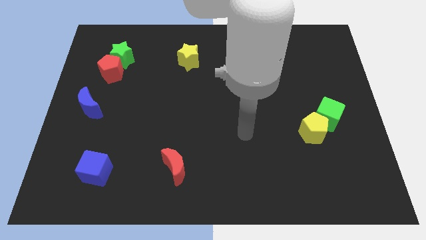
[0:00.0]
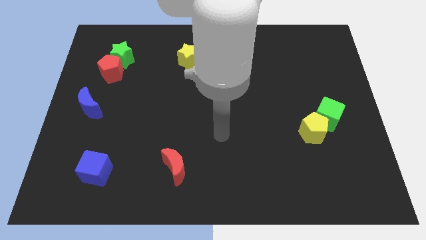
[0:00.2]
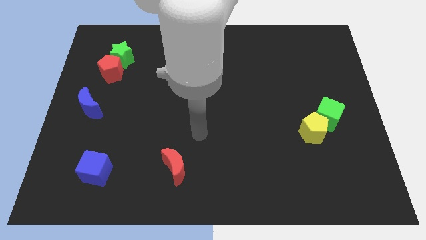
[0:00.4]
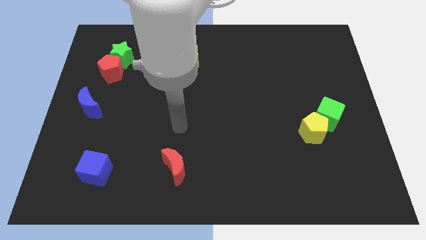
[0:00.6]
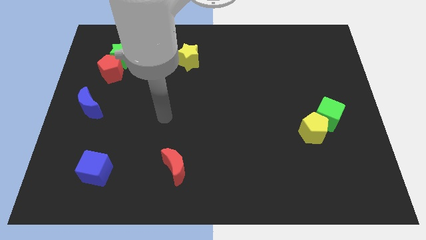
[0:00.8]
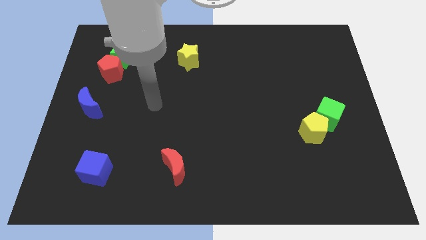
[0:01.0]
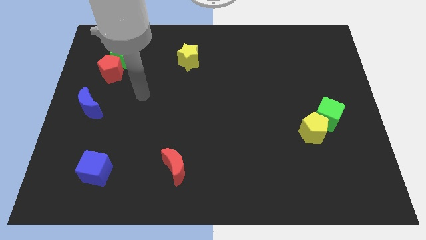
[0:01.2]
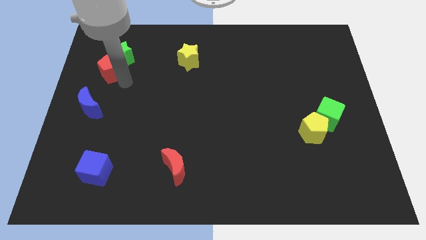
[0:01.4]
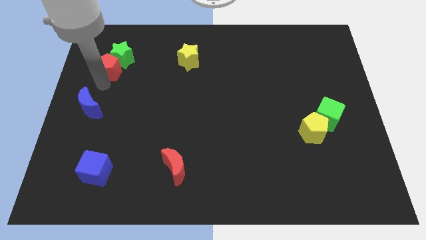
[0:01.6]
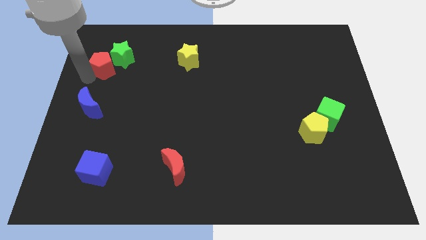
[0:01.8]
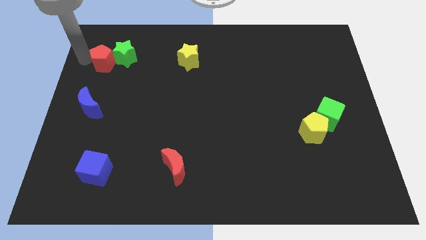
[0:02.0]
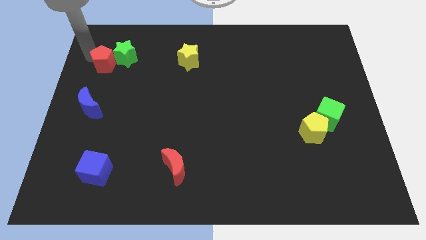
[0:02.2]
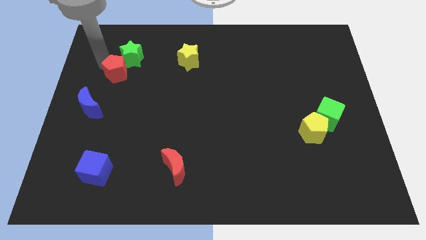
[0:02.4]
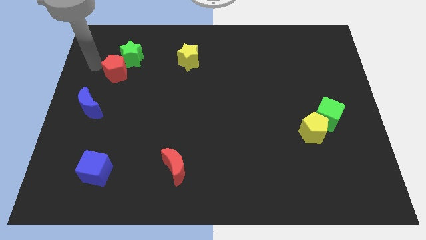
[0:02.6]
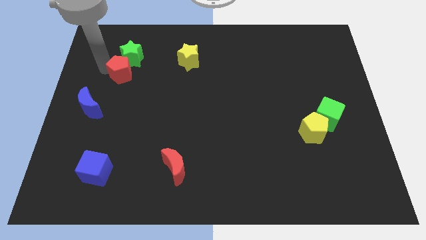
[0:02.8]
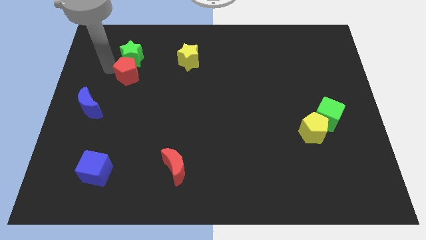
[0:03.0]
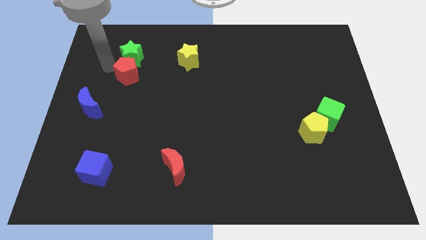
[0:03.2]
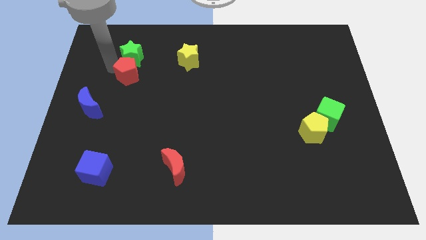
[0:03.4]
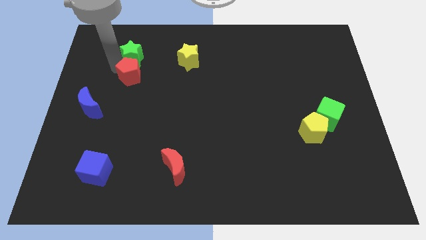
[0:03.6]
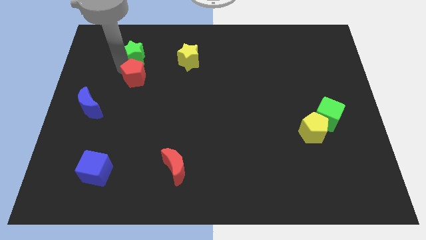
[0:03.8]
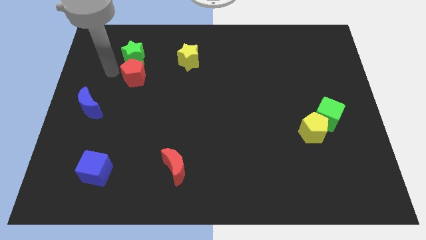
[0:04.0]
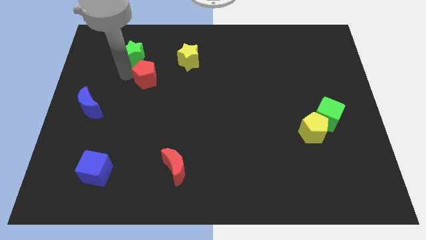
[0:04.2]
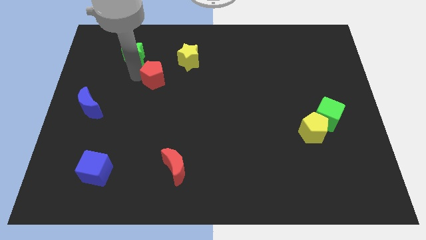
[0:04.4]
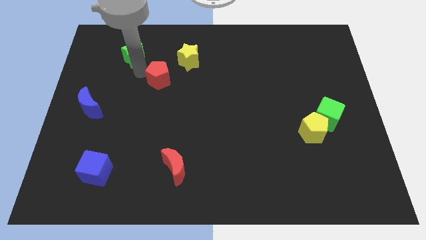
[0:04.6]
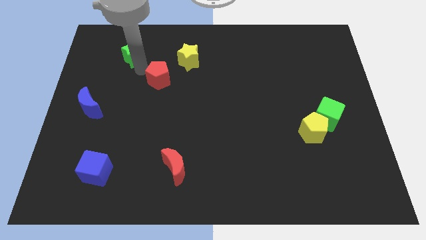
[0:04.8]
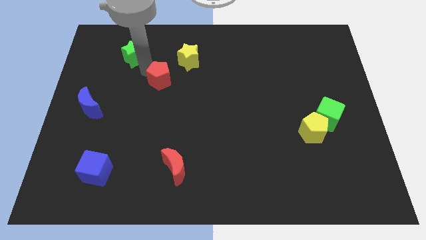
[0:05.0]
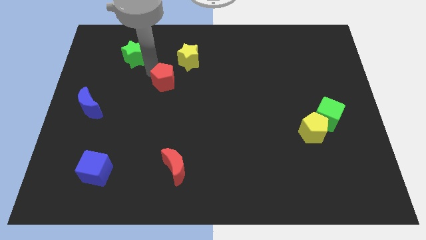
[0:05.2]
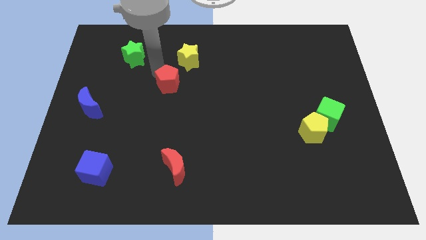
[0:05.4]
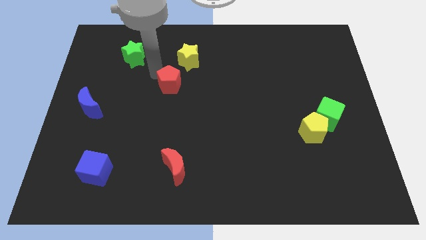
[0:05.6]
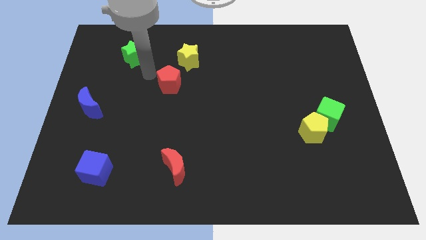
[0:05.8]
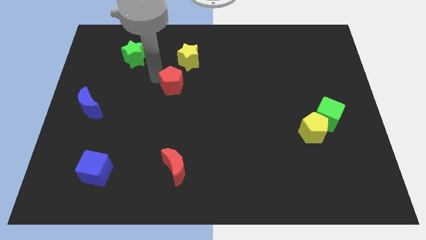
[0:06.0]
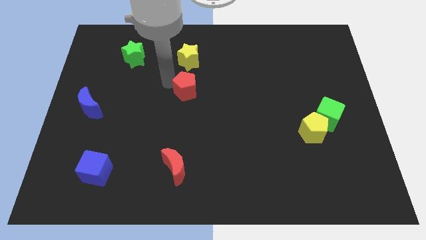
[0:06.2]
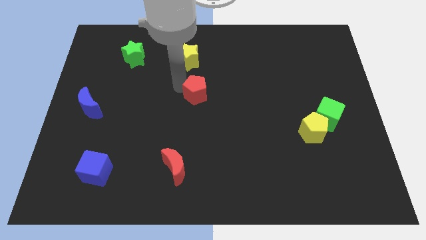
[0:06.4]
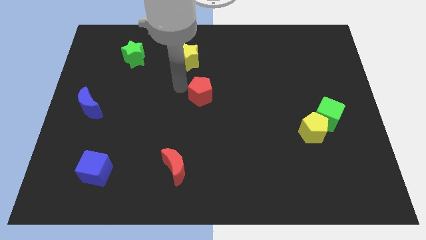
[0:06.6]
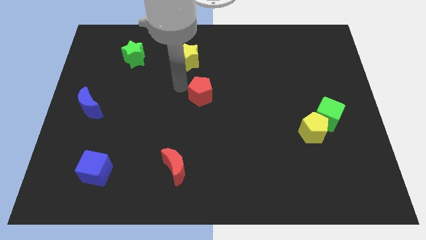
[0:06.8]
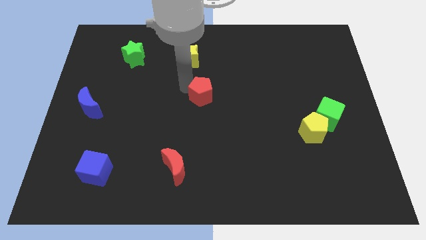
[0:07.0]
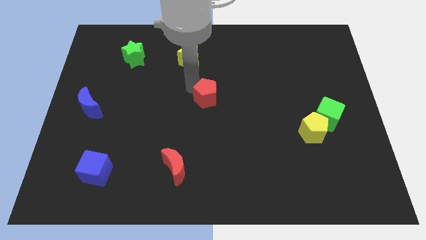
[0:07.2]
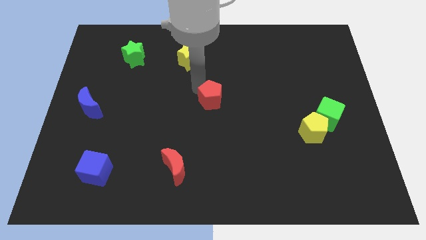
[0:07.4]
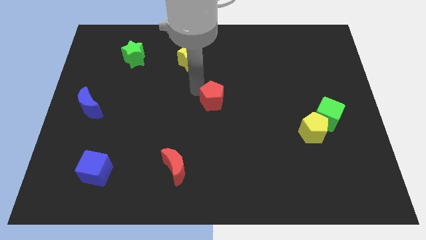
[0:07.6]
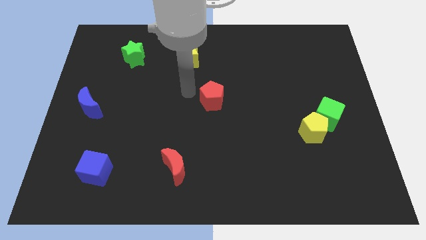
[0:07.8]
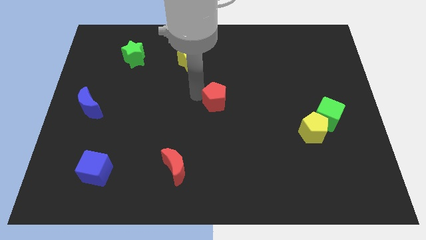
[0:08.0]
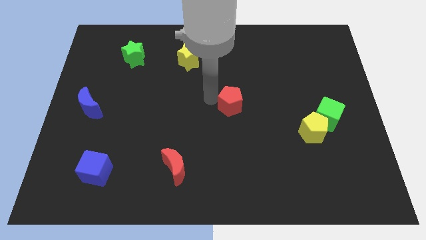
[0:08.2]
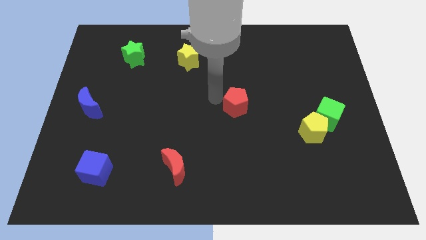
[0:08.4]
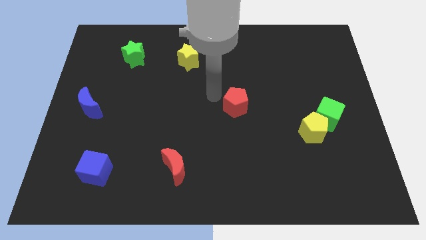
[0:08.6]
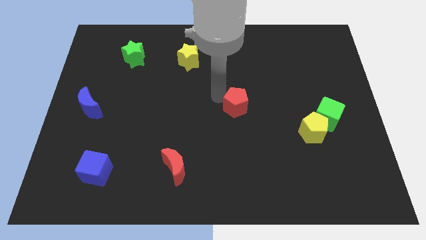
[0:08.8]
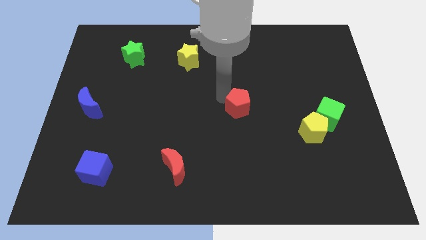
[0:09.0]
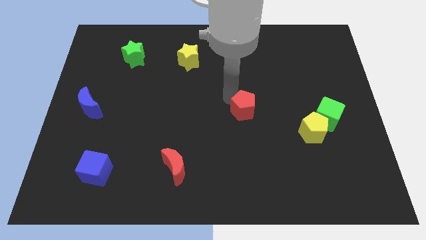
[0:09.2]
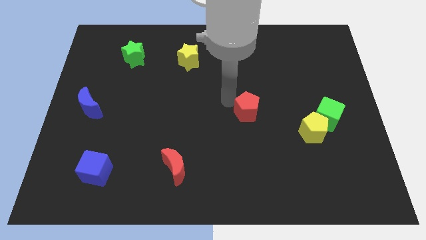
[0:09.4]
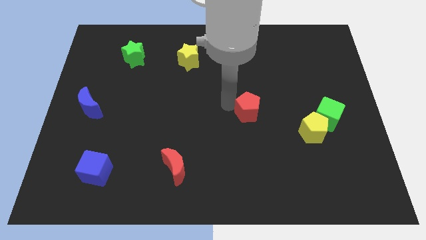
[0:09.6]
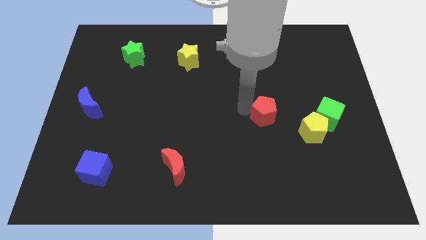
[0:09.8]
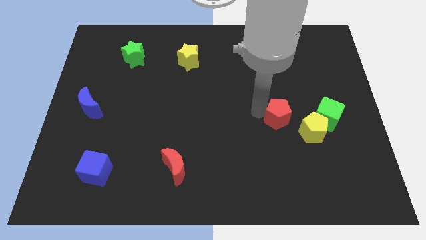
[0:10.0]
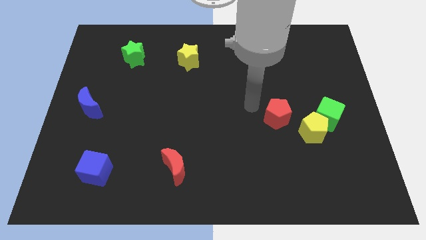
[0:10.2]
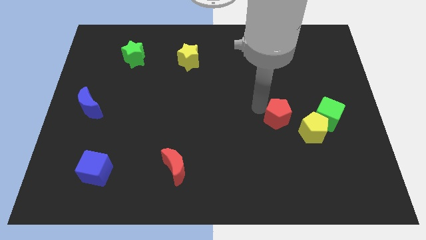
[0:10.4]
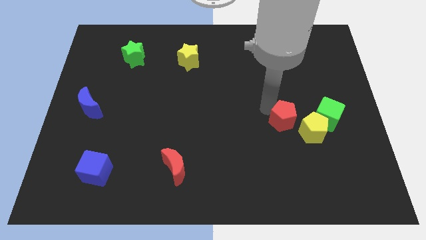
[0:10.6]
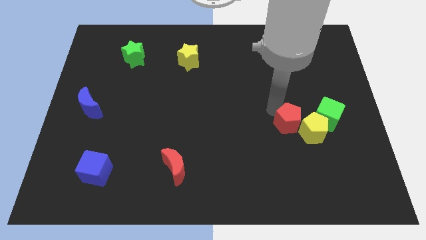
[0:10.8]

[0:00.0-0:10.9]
move the red pentagon to the yellow pentagon

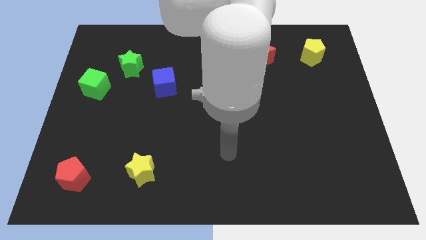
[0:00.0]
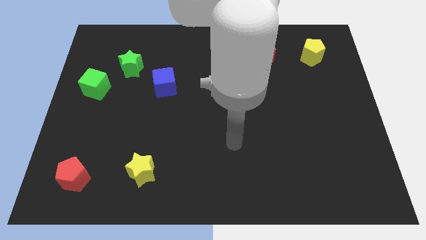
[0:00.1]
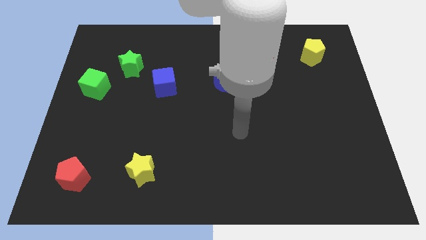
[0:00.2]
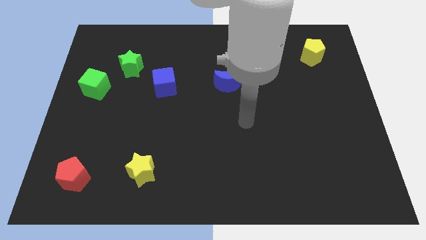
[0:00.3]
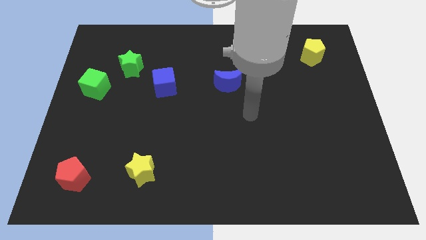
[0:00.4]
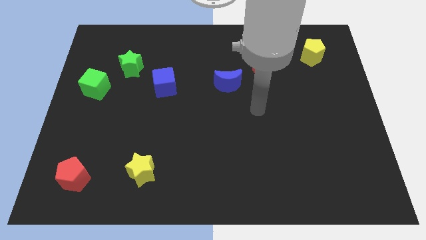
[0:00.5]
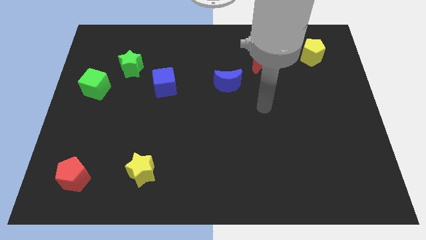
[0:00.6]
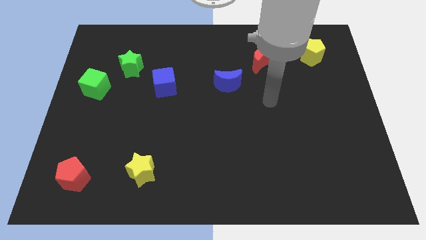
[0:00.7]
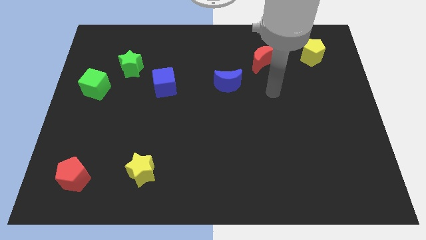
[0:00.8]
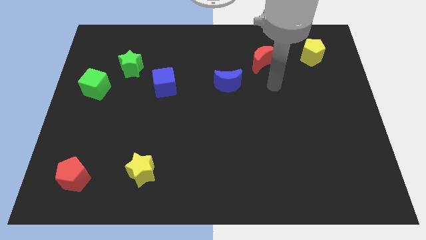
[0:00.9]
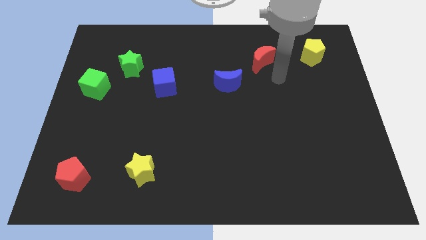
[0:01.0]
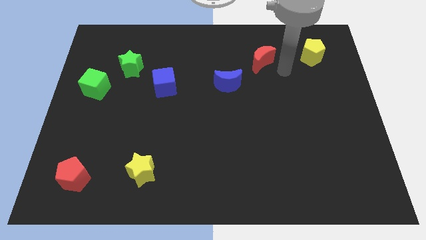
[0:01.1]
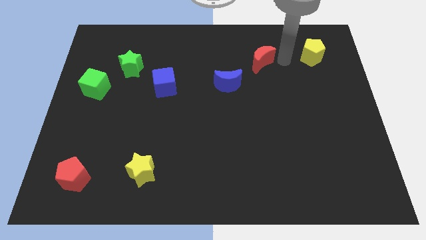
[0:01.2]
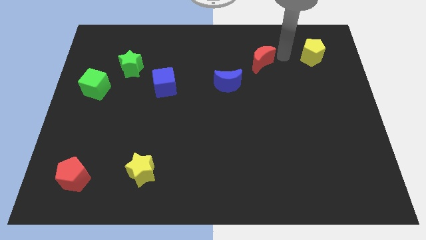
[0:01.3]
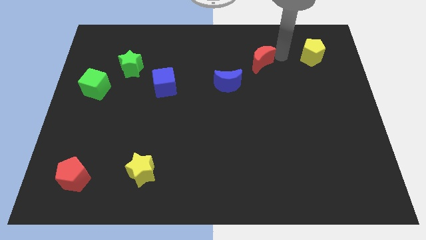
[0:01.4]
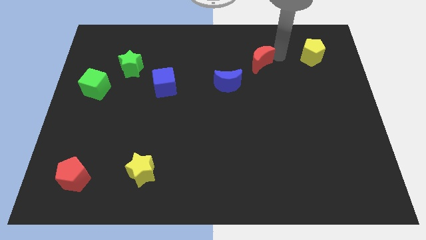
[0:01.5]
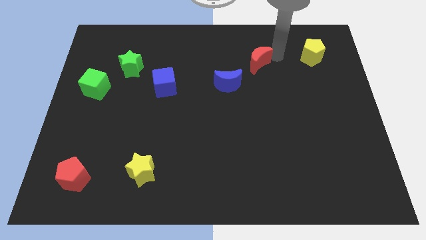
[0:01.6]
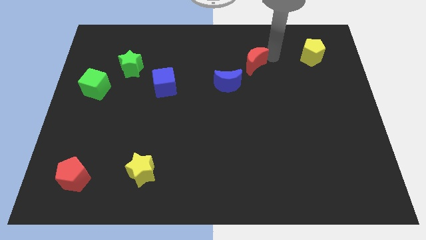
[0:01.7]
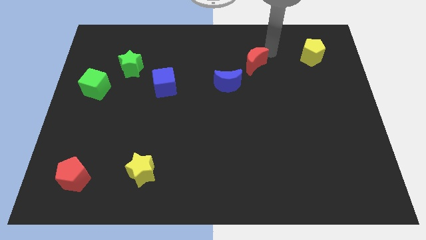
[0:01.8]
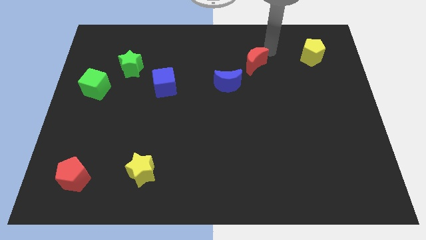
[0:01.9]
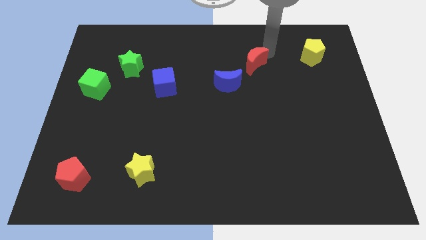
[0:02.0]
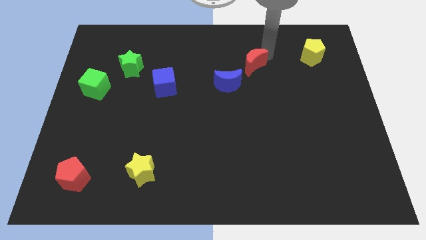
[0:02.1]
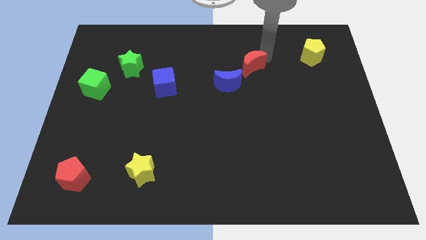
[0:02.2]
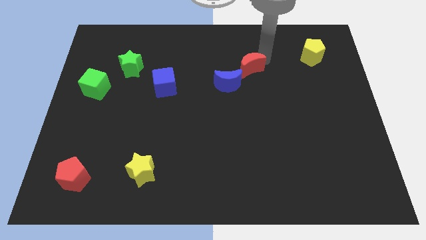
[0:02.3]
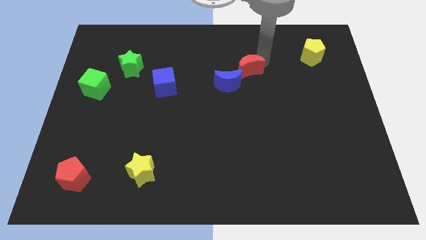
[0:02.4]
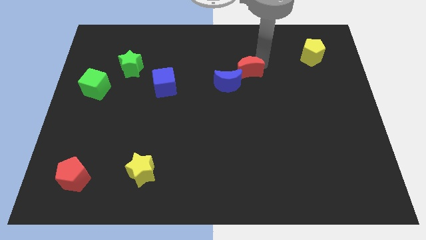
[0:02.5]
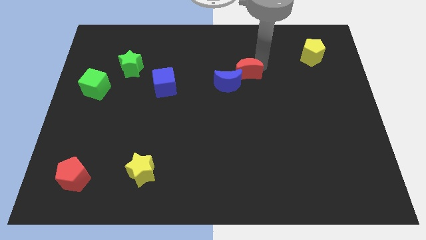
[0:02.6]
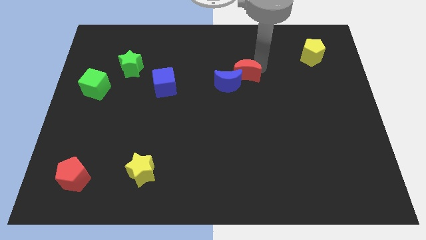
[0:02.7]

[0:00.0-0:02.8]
put the red moon next to the blue moon
